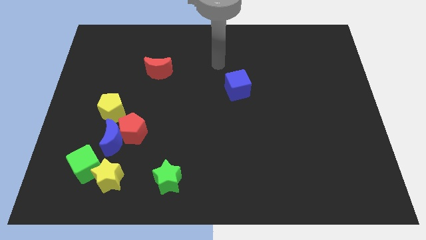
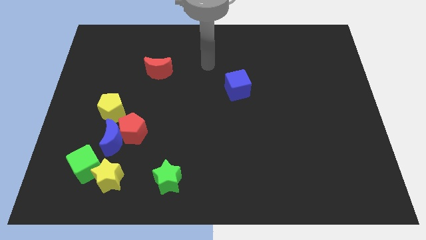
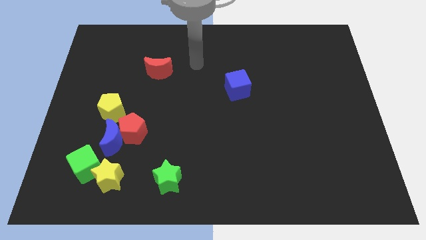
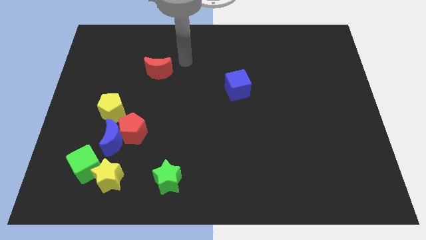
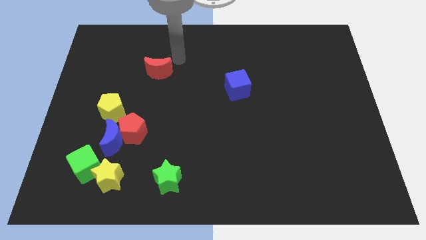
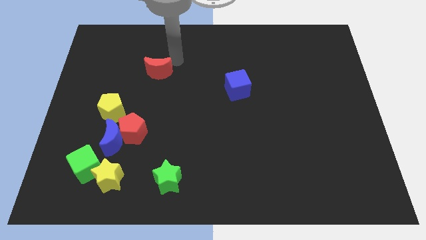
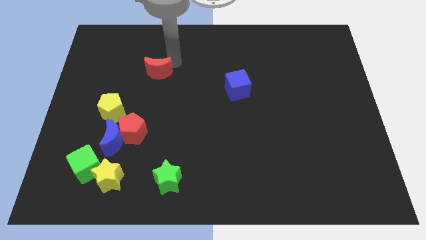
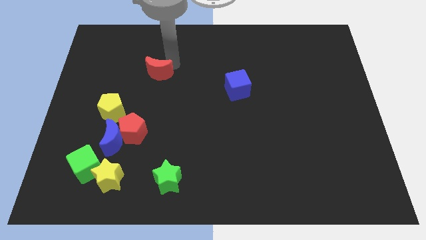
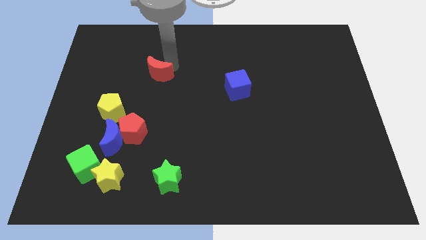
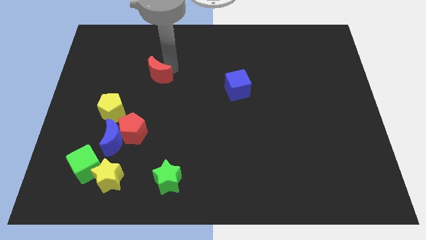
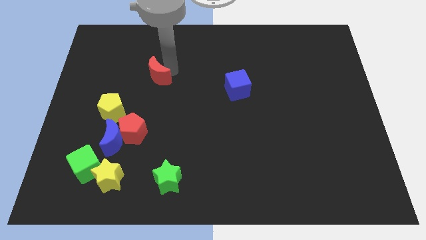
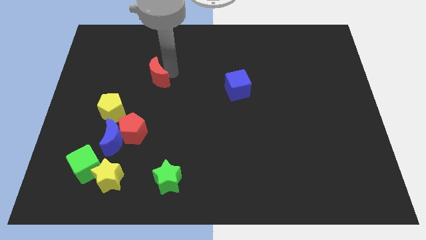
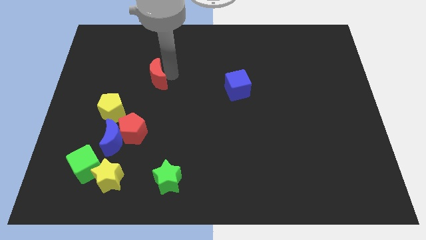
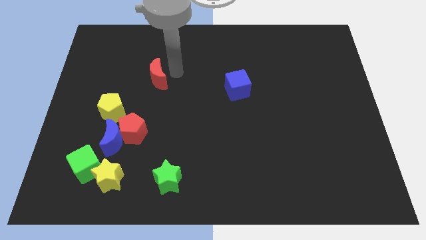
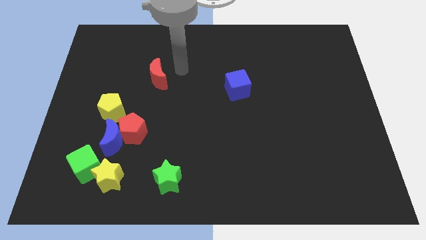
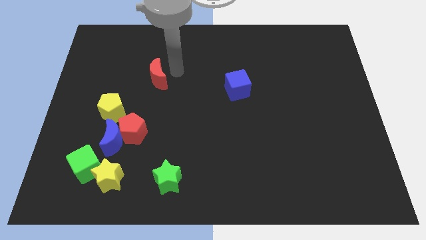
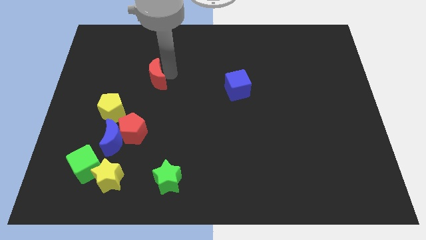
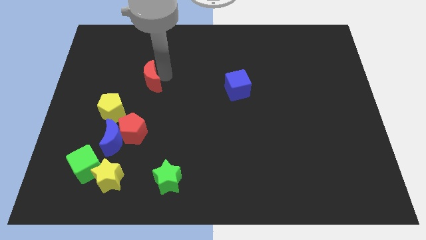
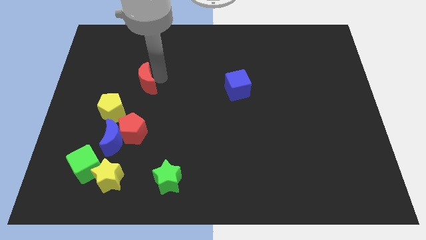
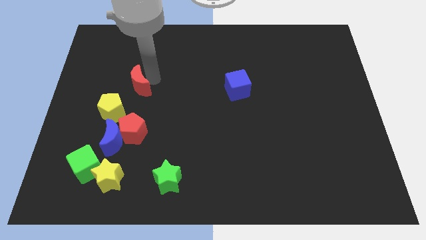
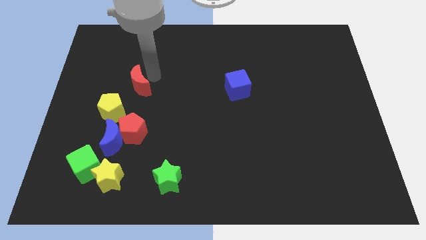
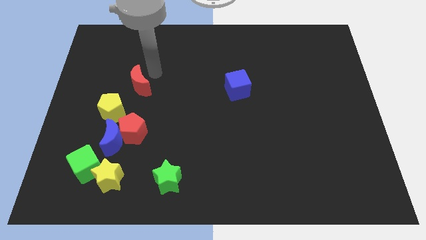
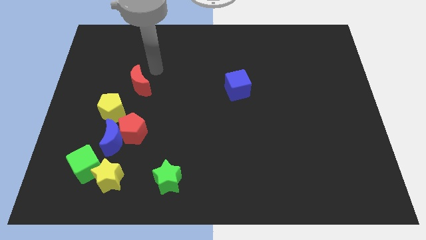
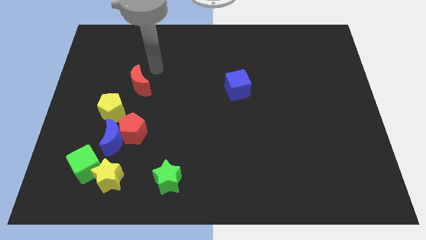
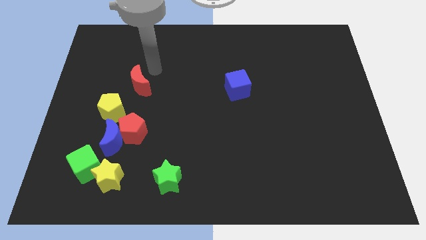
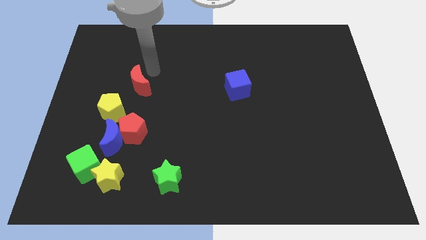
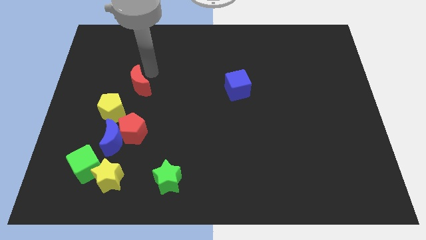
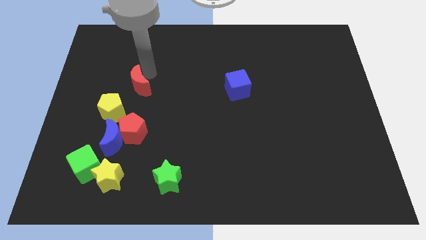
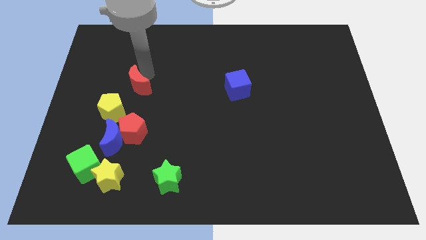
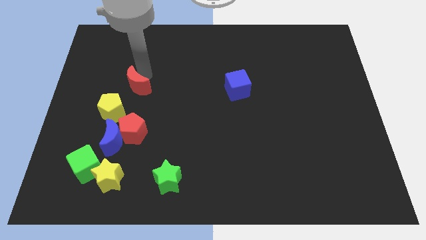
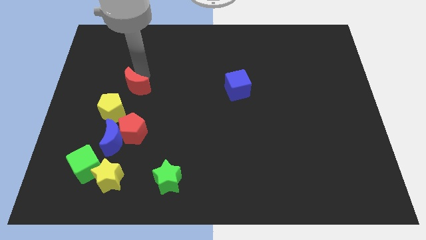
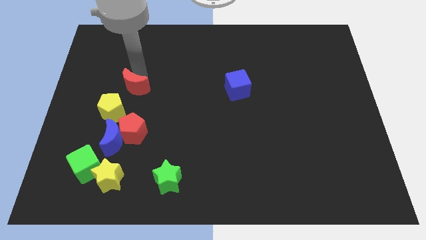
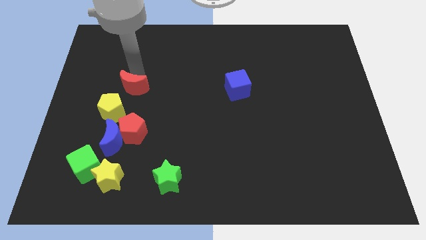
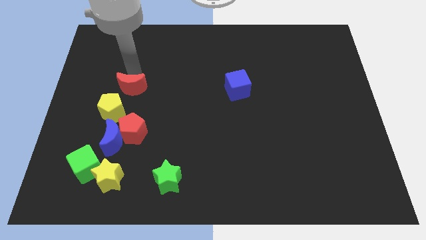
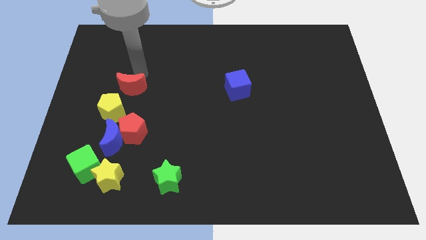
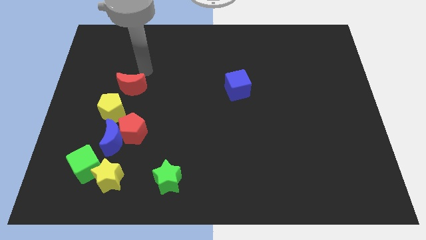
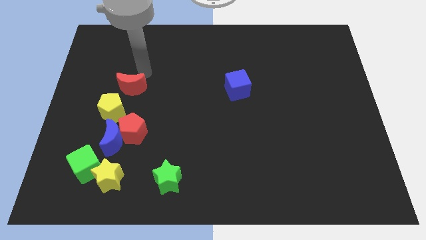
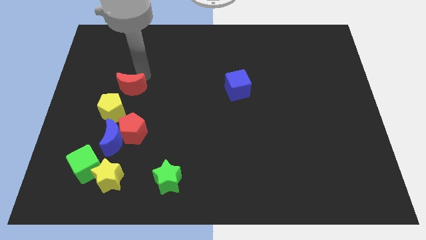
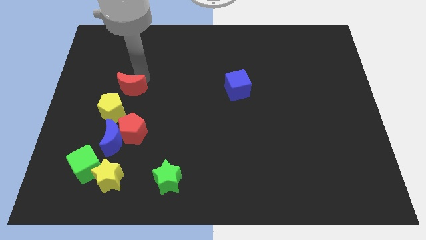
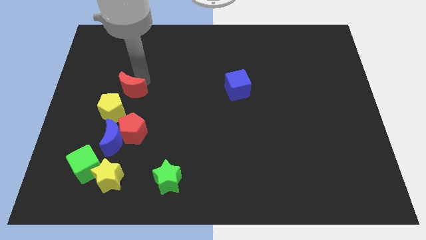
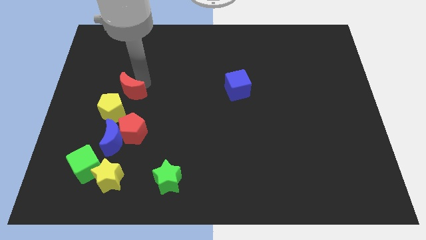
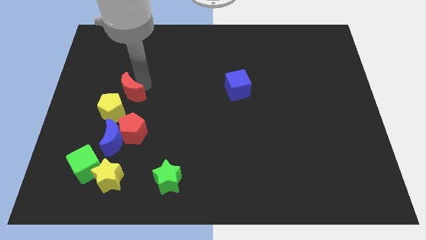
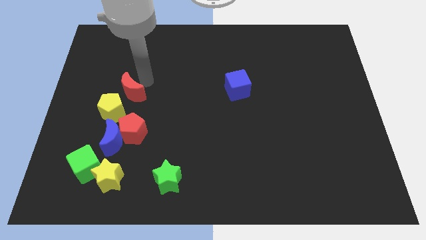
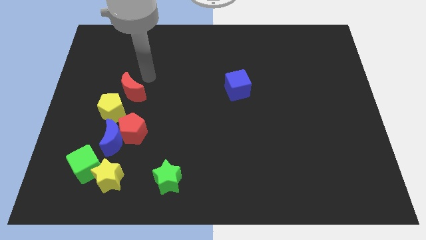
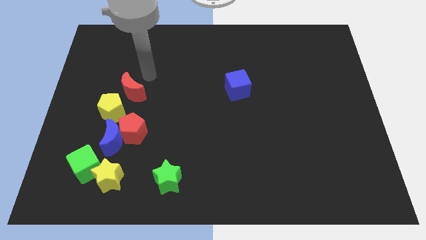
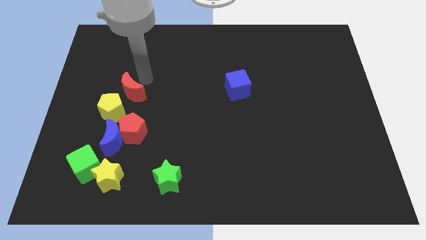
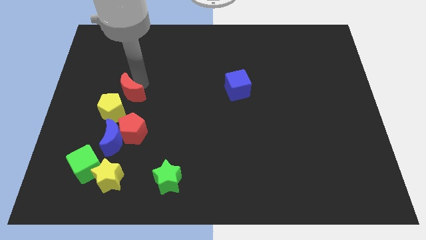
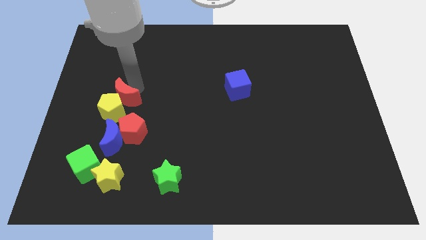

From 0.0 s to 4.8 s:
push the red moon towards the yellow pentagon

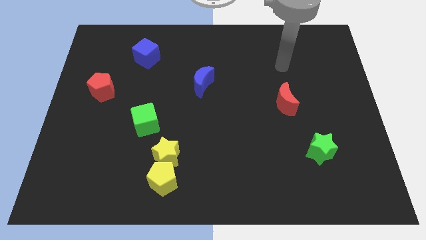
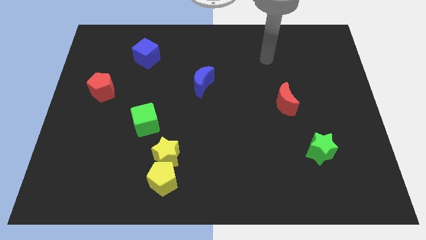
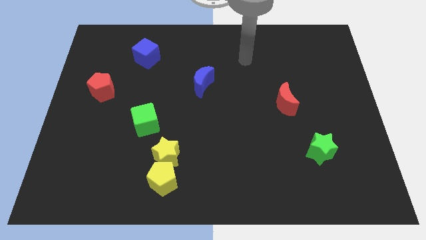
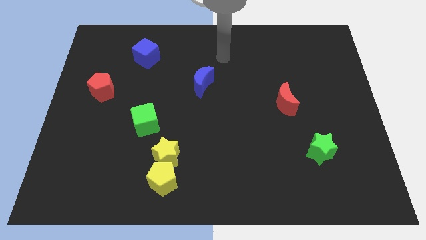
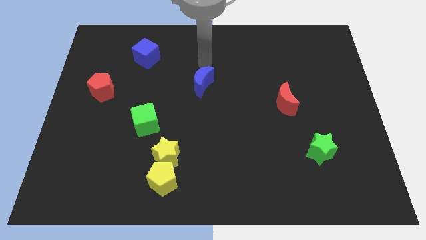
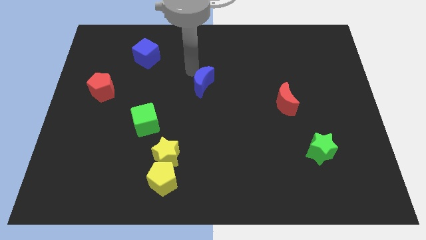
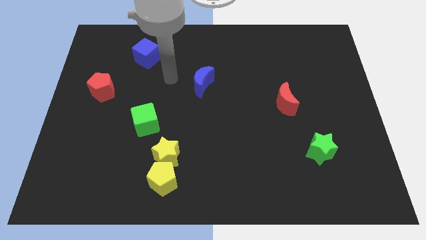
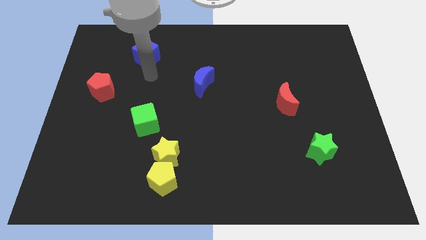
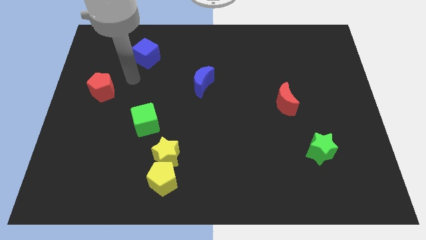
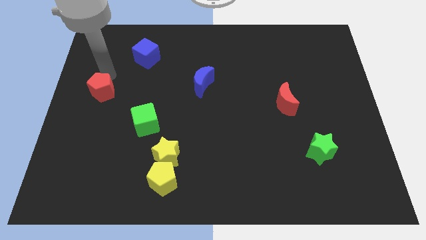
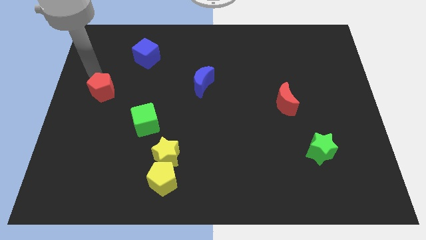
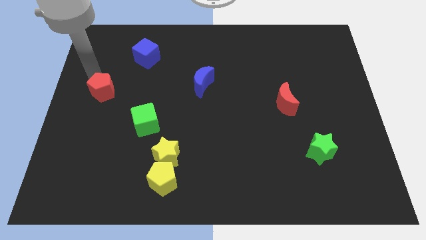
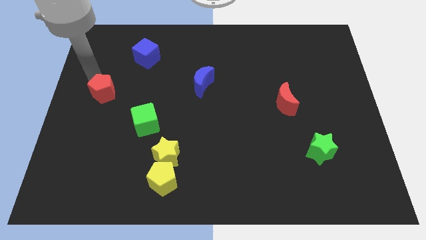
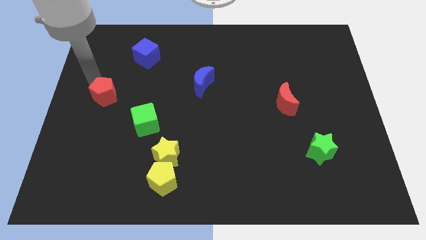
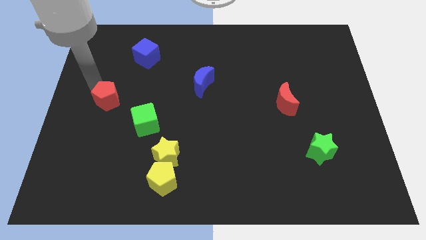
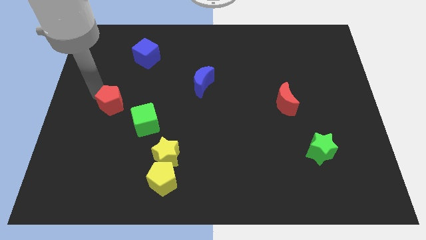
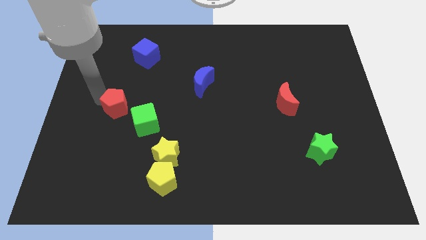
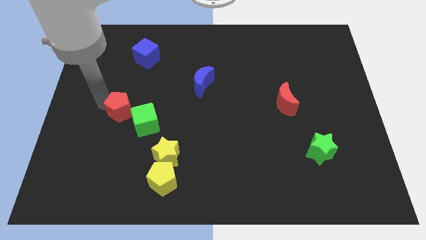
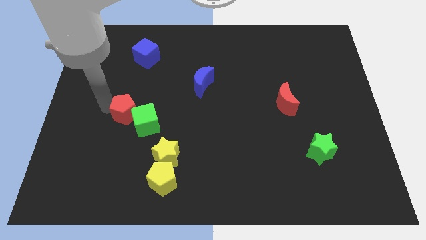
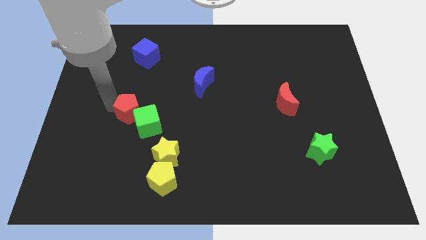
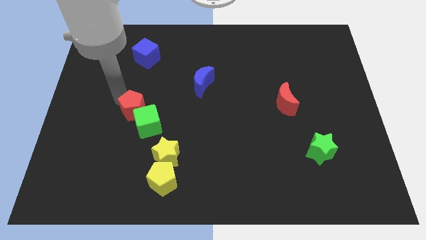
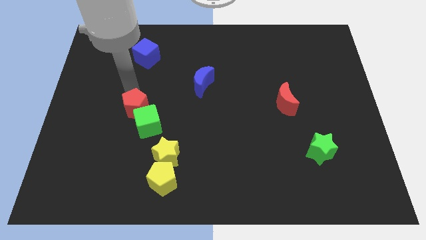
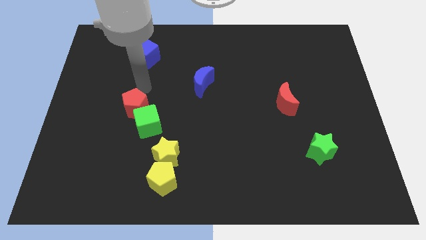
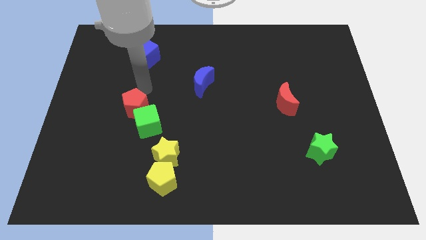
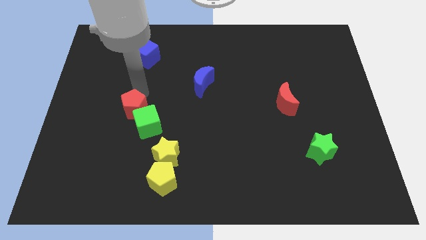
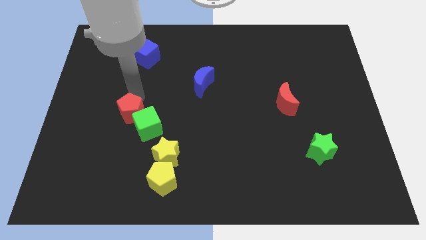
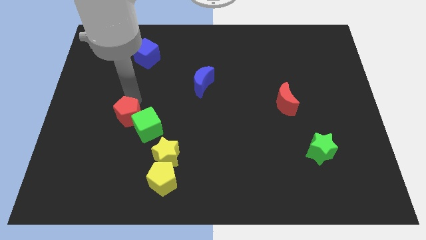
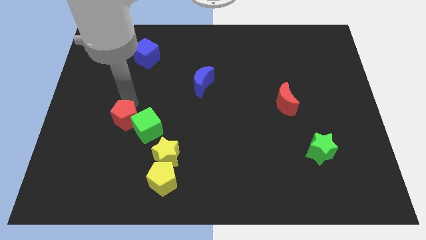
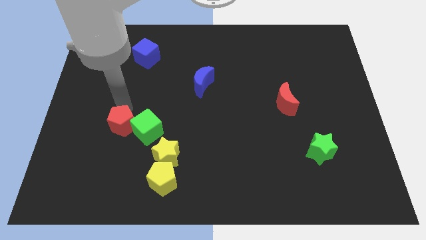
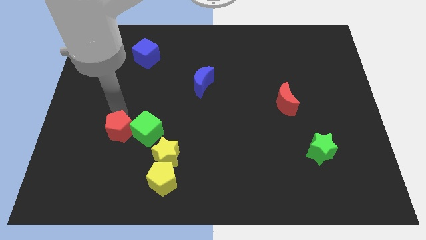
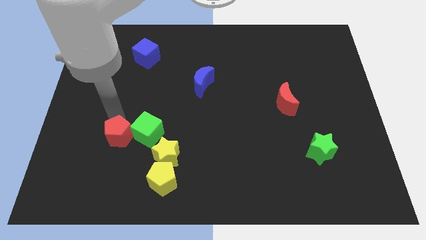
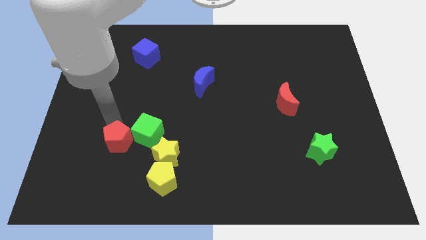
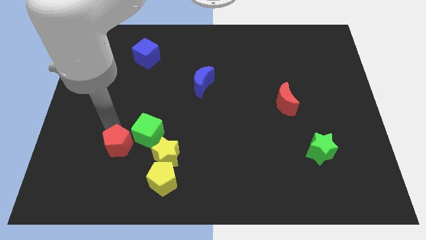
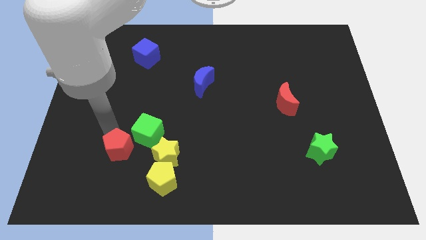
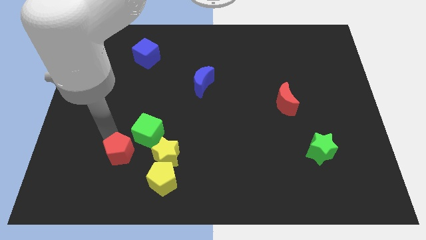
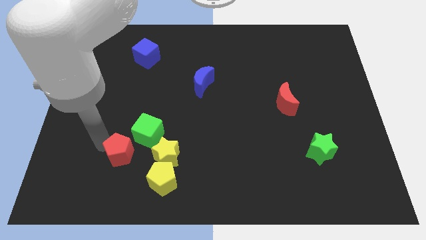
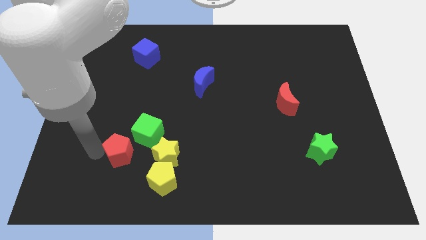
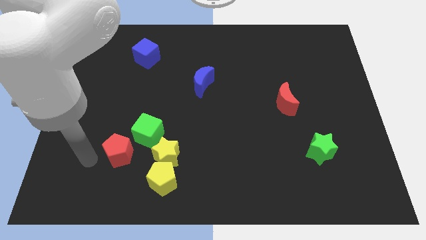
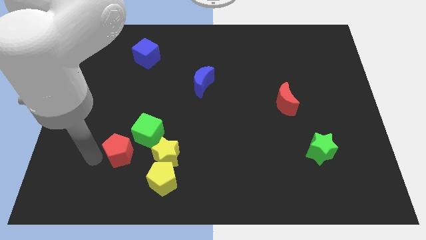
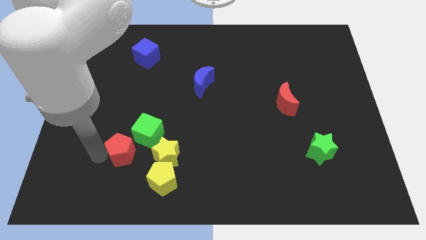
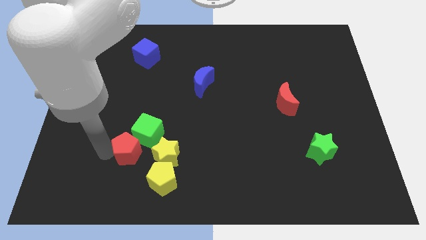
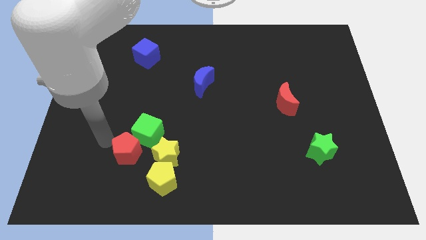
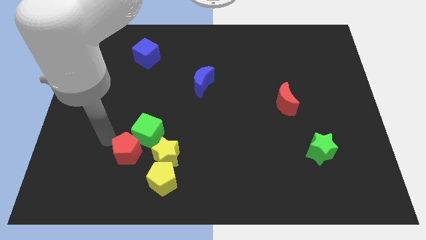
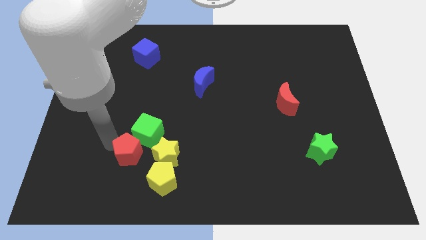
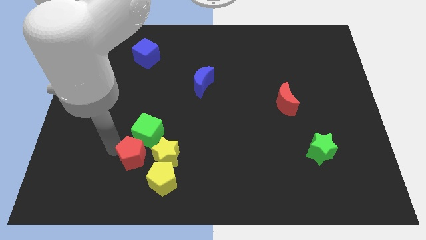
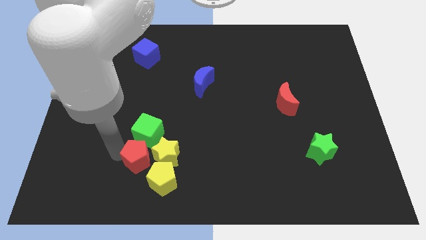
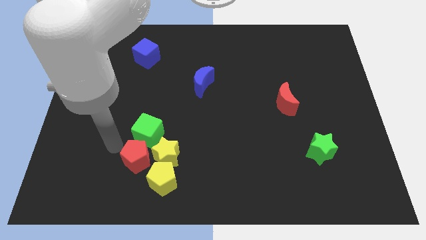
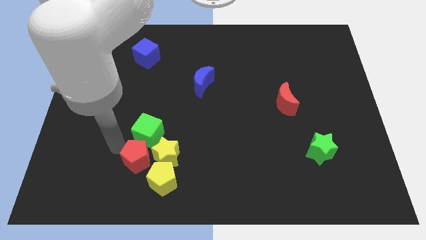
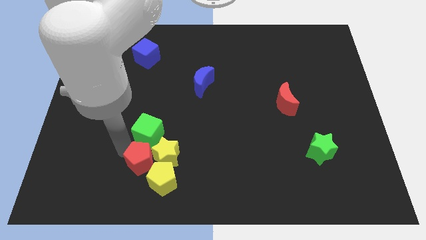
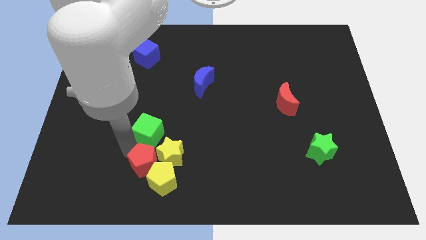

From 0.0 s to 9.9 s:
move the red pentagon close to the yellow pentagon
